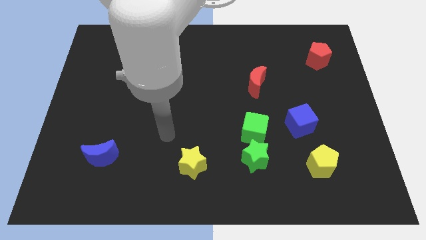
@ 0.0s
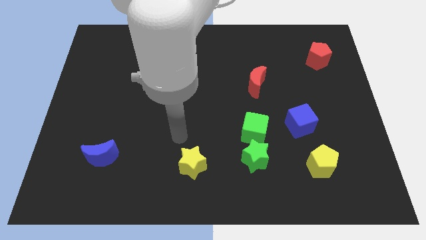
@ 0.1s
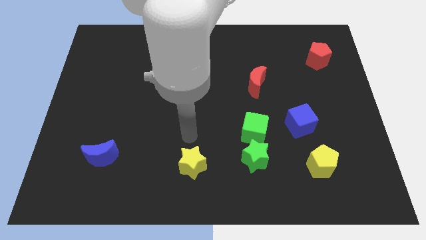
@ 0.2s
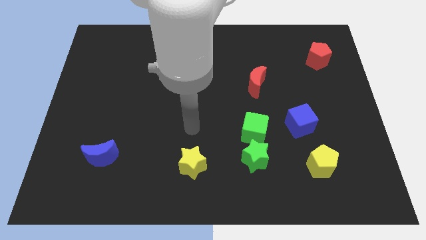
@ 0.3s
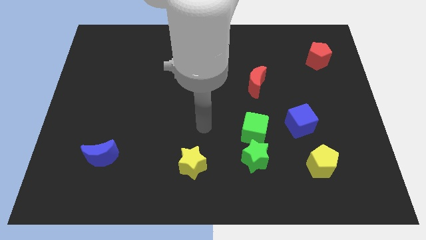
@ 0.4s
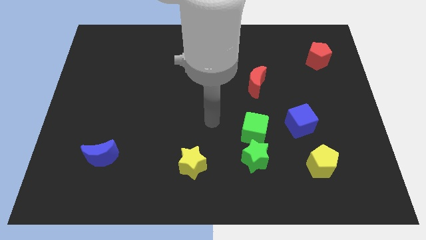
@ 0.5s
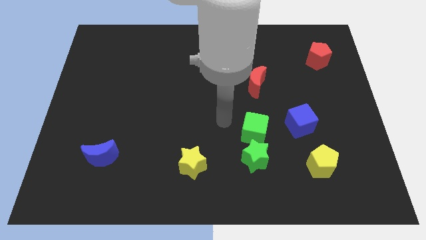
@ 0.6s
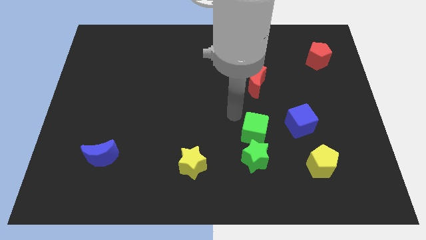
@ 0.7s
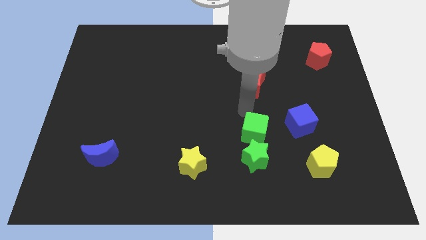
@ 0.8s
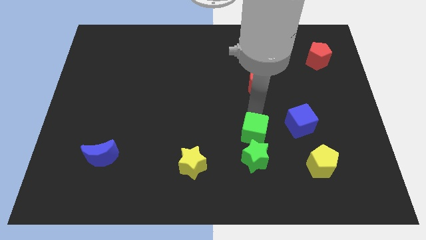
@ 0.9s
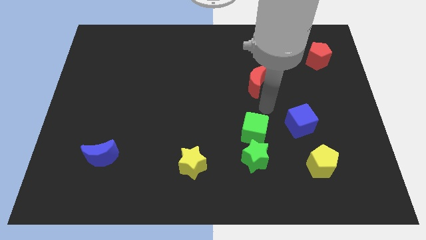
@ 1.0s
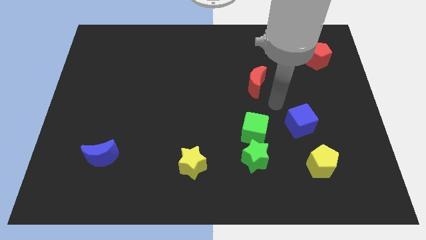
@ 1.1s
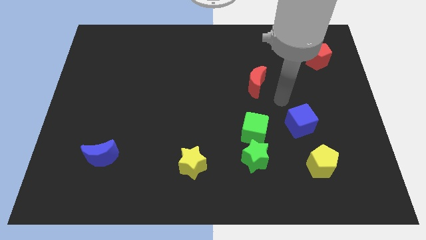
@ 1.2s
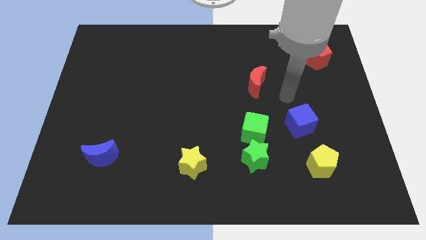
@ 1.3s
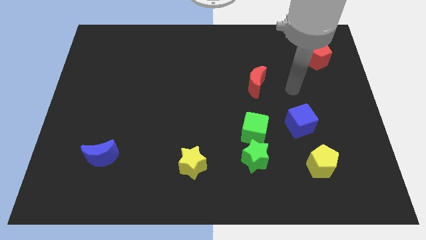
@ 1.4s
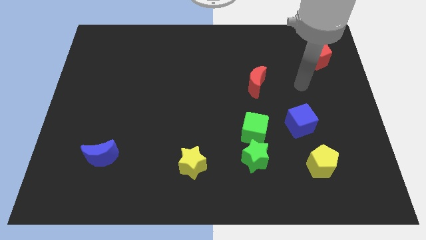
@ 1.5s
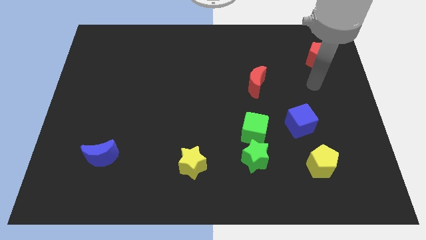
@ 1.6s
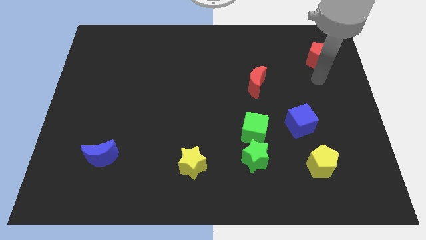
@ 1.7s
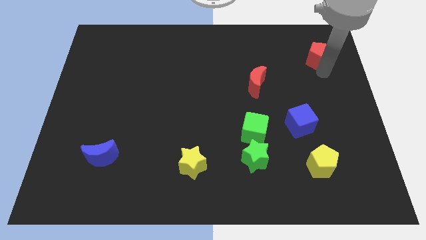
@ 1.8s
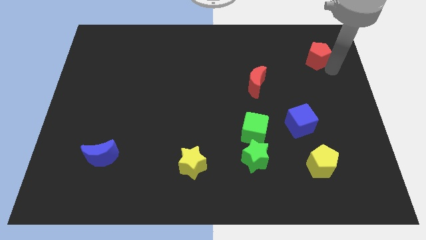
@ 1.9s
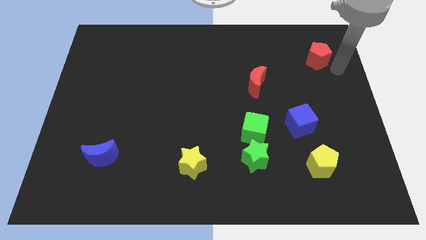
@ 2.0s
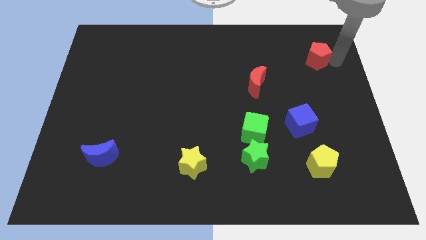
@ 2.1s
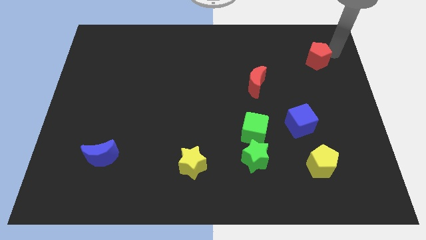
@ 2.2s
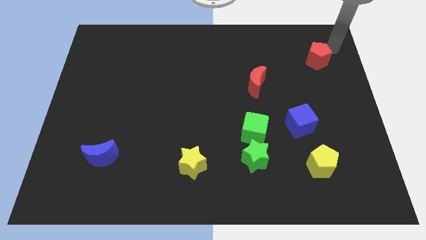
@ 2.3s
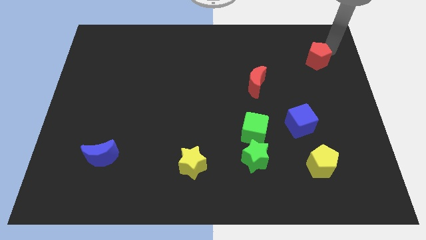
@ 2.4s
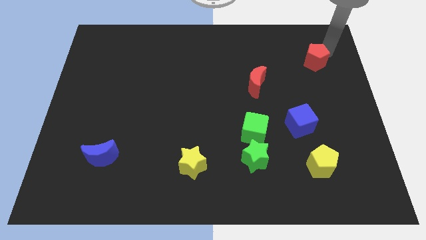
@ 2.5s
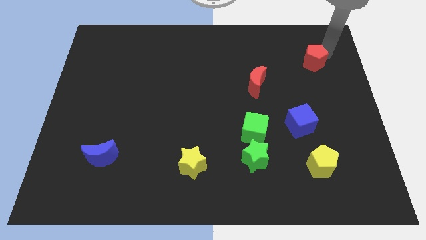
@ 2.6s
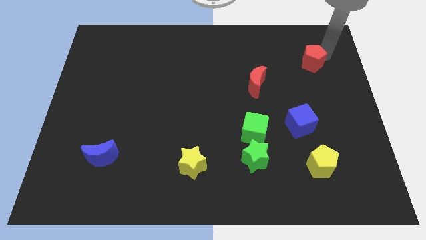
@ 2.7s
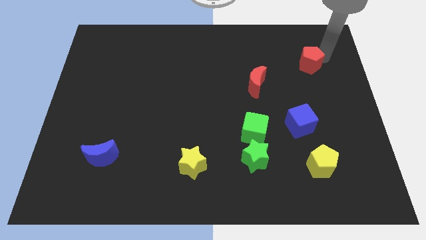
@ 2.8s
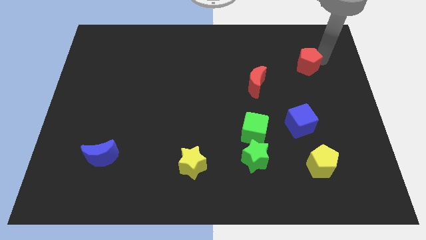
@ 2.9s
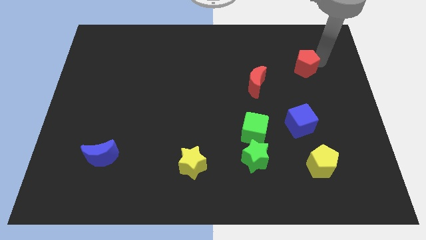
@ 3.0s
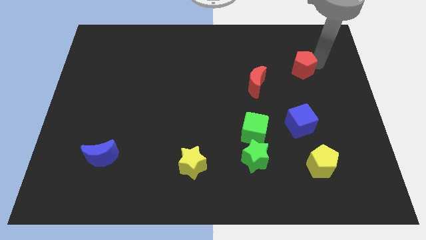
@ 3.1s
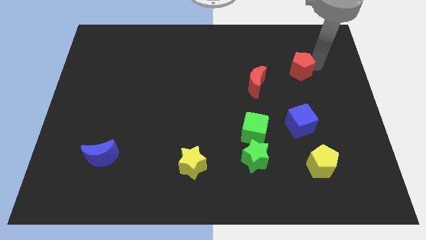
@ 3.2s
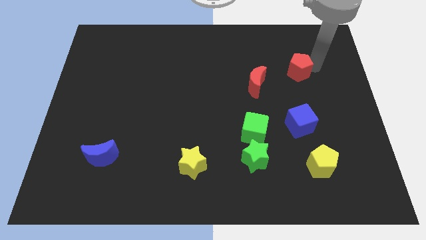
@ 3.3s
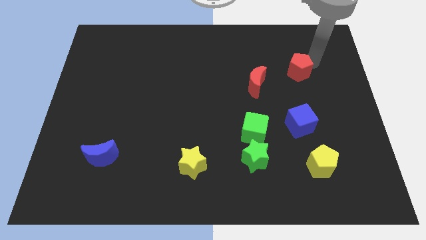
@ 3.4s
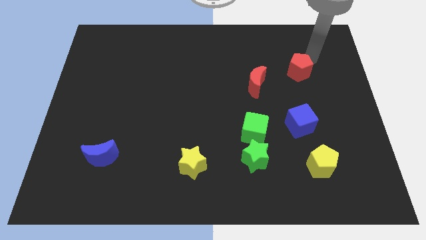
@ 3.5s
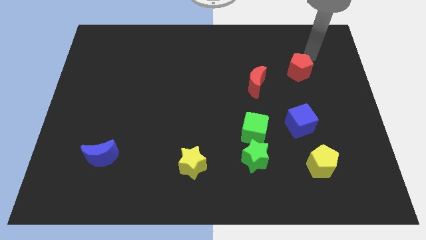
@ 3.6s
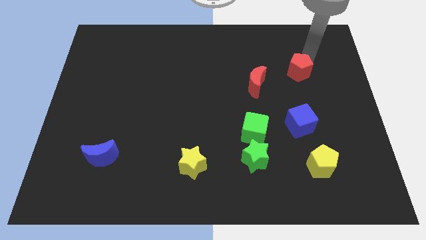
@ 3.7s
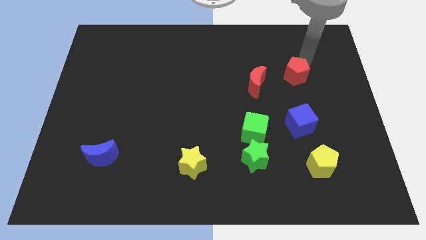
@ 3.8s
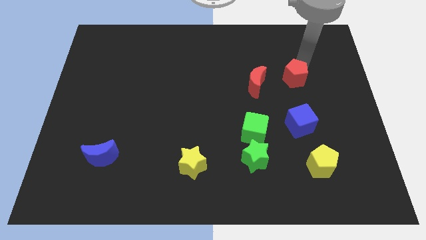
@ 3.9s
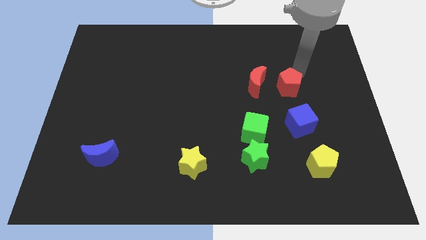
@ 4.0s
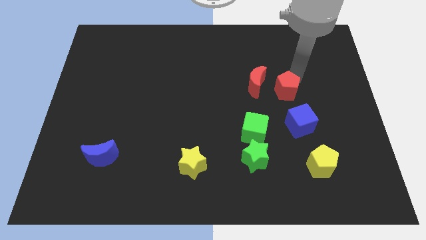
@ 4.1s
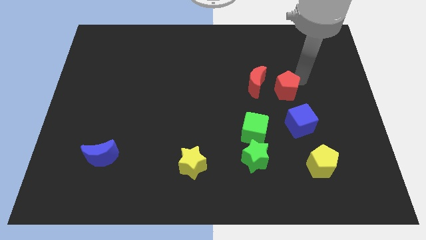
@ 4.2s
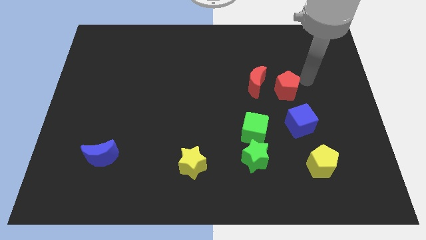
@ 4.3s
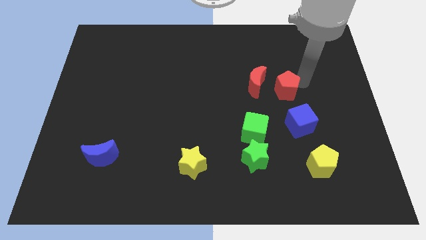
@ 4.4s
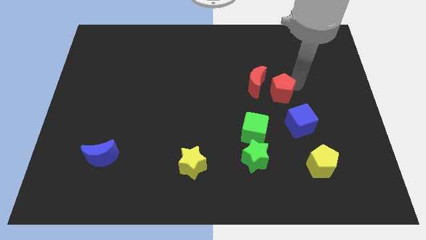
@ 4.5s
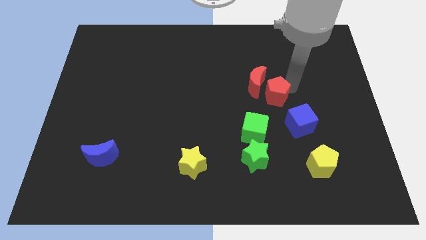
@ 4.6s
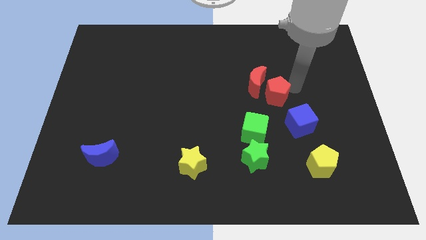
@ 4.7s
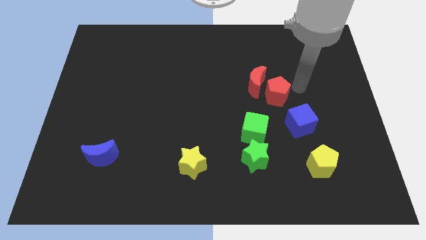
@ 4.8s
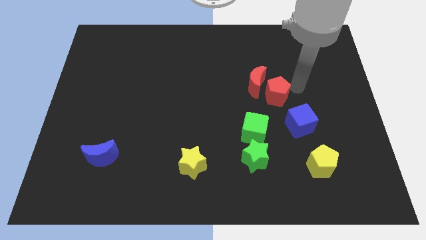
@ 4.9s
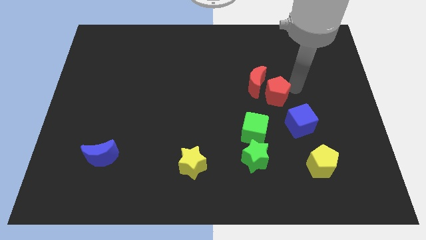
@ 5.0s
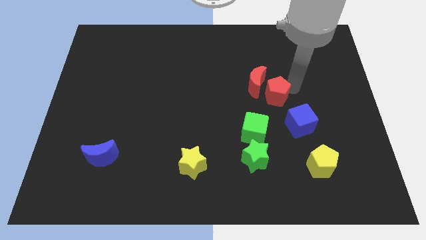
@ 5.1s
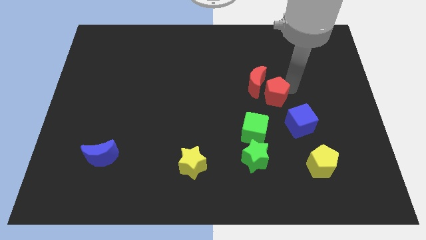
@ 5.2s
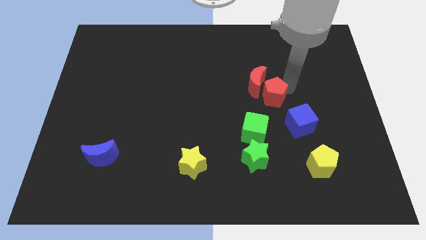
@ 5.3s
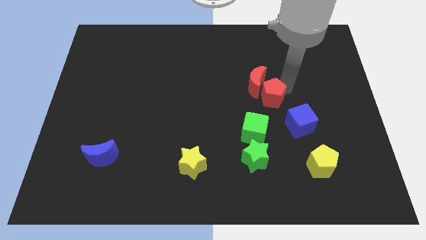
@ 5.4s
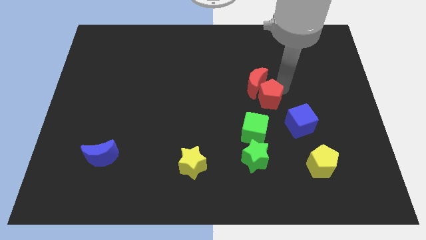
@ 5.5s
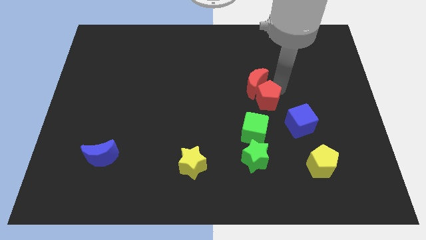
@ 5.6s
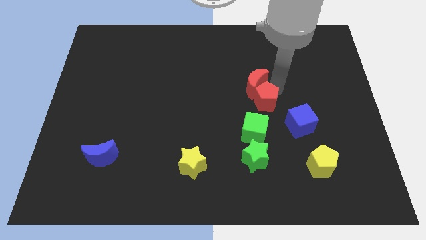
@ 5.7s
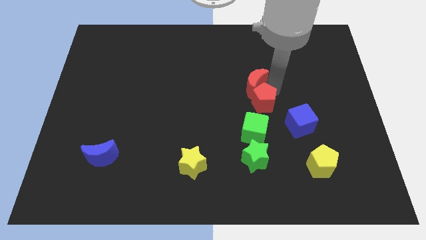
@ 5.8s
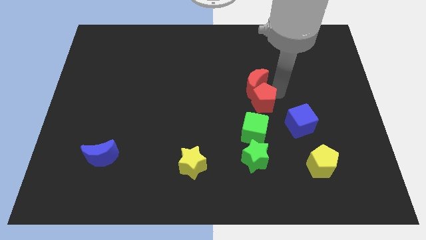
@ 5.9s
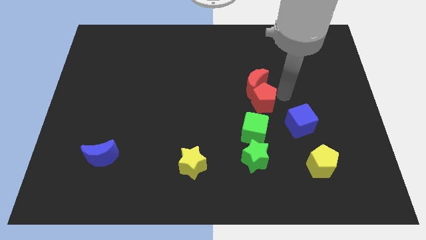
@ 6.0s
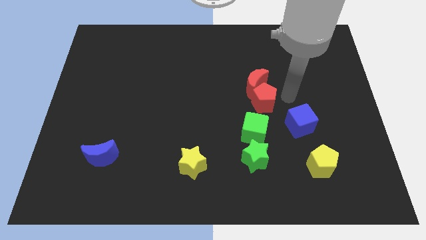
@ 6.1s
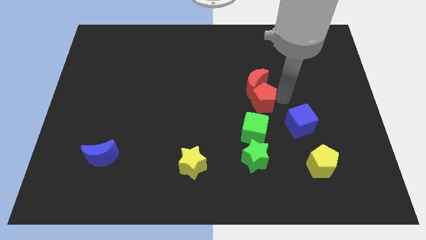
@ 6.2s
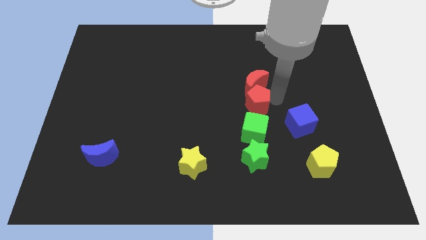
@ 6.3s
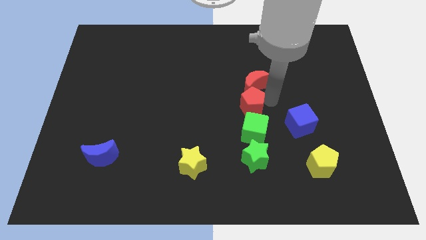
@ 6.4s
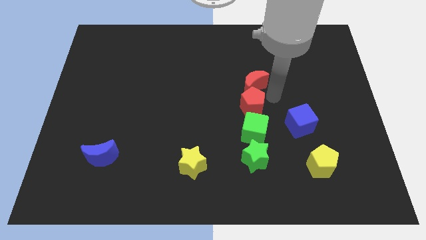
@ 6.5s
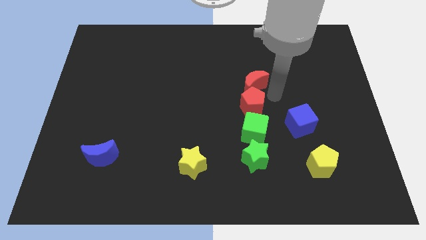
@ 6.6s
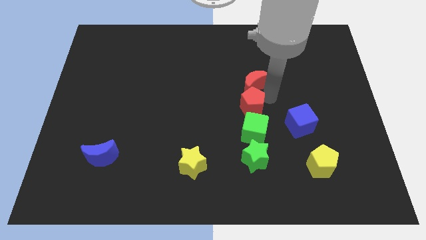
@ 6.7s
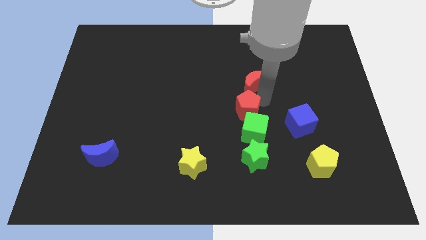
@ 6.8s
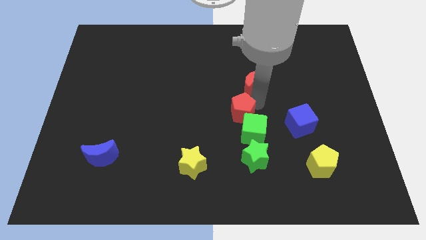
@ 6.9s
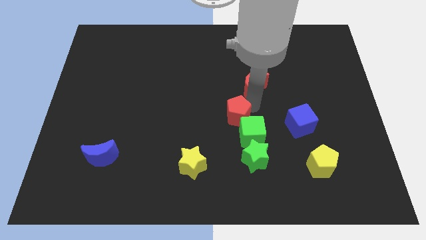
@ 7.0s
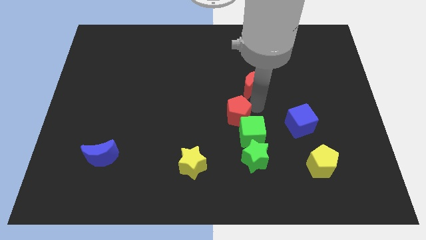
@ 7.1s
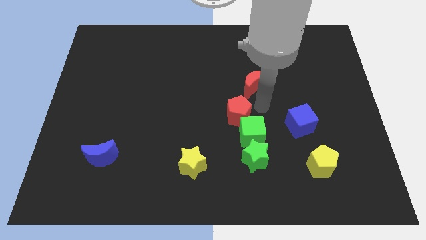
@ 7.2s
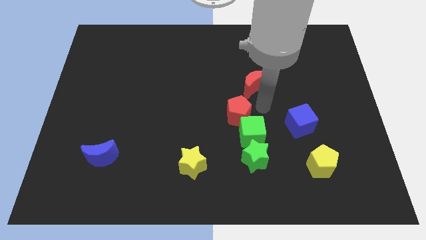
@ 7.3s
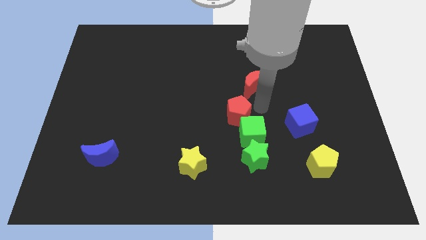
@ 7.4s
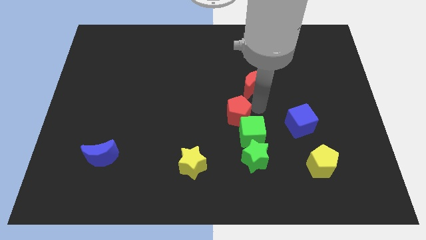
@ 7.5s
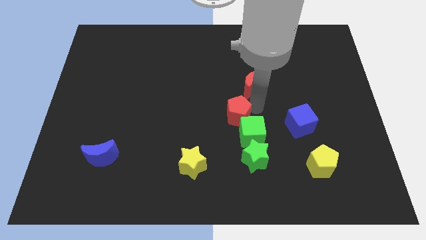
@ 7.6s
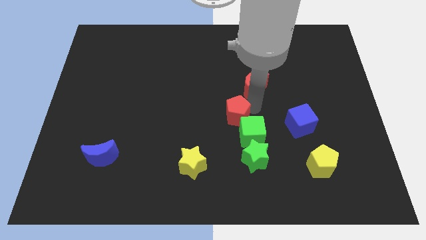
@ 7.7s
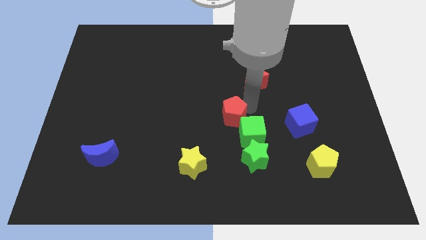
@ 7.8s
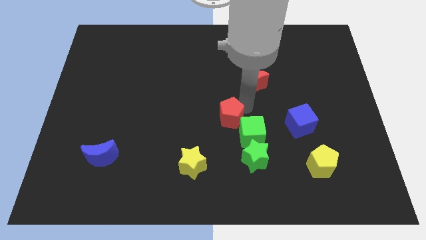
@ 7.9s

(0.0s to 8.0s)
slide the red pentagon just left of the green cube
